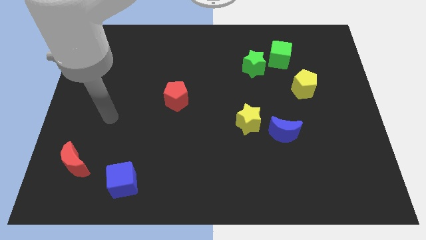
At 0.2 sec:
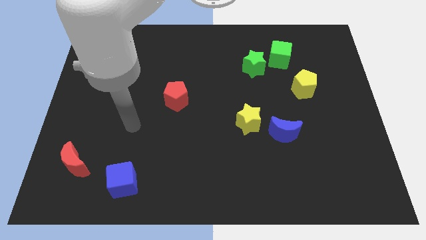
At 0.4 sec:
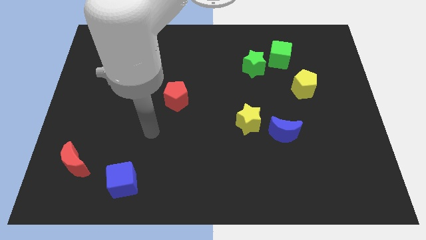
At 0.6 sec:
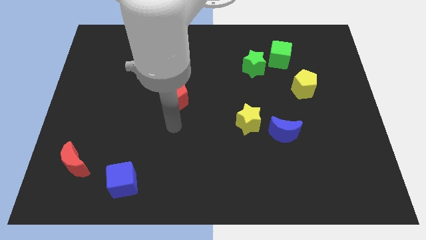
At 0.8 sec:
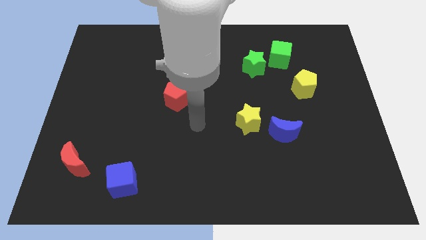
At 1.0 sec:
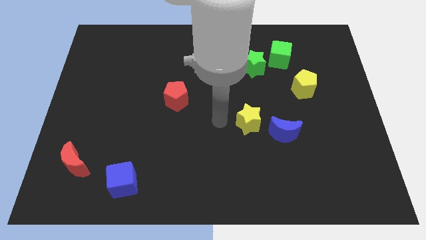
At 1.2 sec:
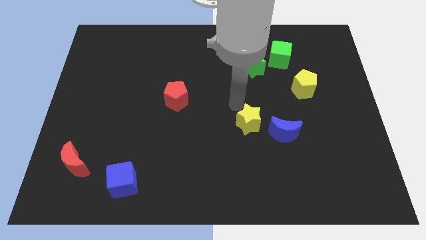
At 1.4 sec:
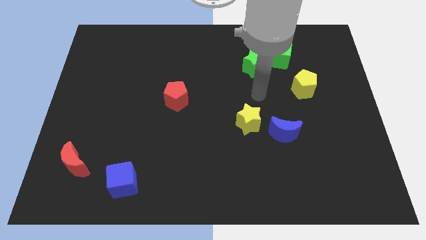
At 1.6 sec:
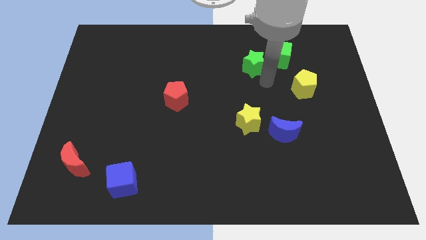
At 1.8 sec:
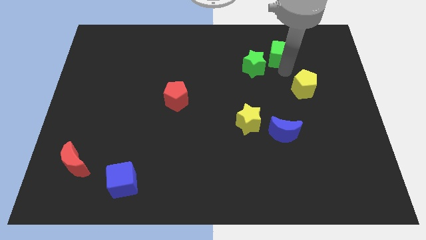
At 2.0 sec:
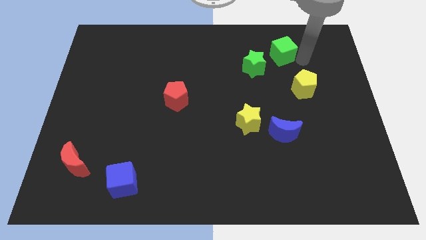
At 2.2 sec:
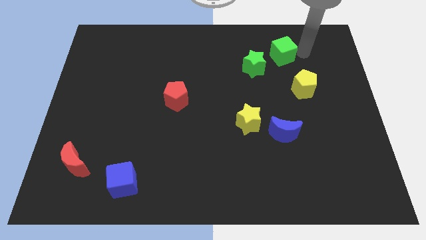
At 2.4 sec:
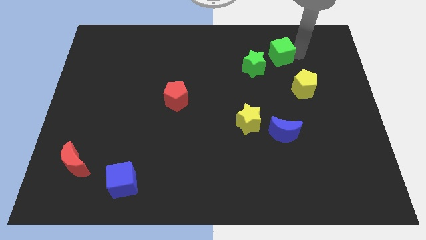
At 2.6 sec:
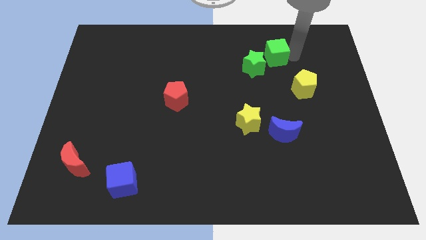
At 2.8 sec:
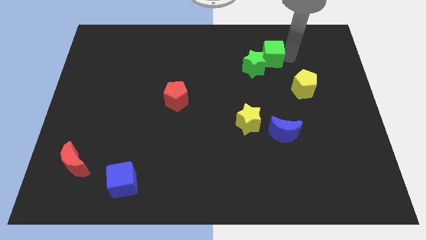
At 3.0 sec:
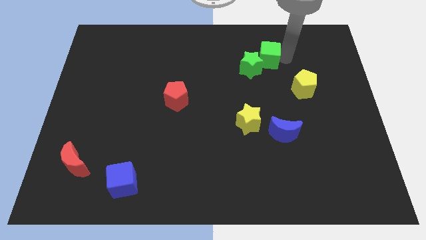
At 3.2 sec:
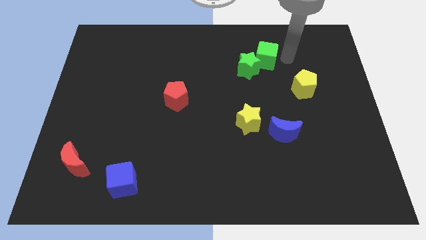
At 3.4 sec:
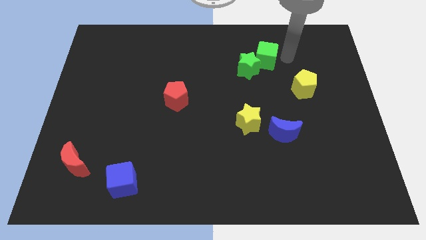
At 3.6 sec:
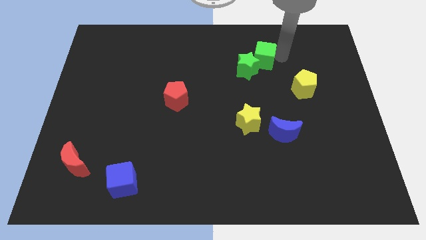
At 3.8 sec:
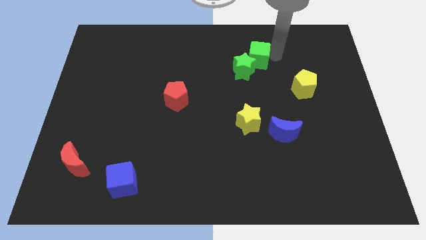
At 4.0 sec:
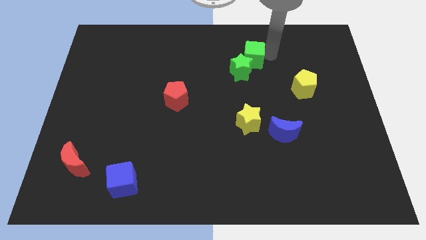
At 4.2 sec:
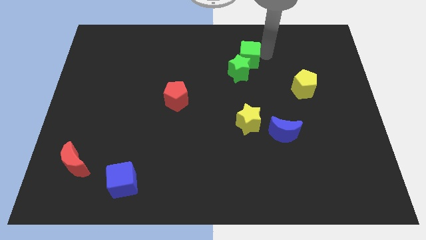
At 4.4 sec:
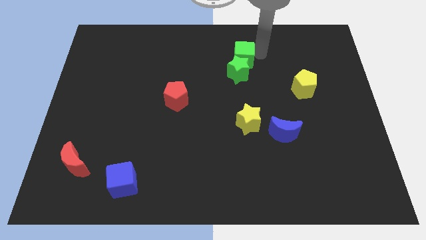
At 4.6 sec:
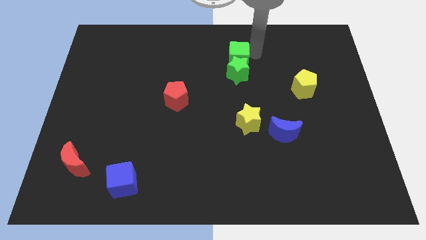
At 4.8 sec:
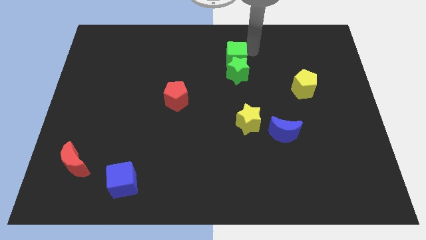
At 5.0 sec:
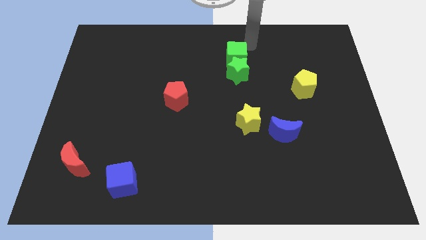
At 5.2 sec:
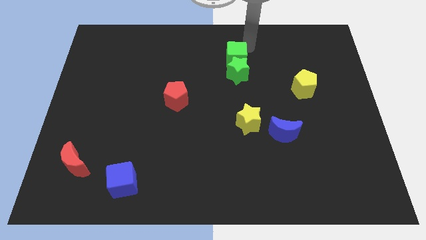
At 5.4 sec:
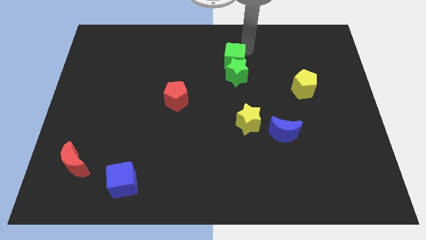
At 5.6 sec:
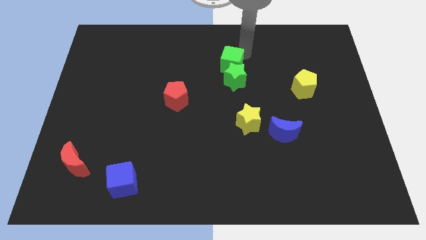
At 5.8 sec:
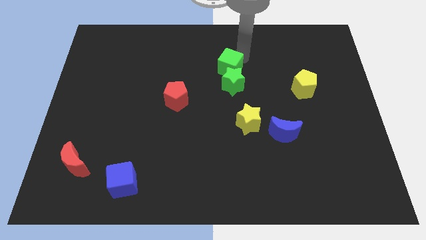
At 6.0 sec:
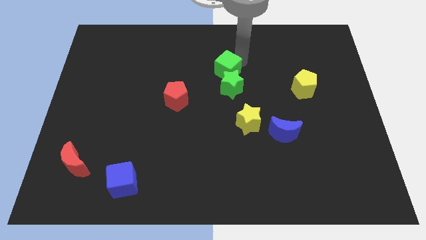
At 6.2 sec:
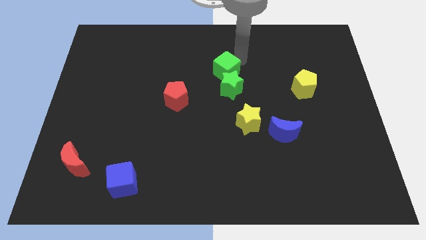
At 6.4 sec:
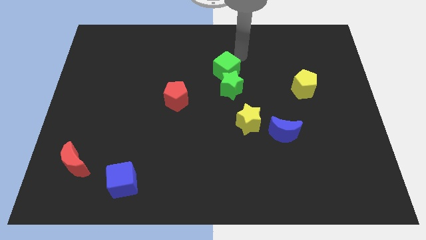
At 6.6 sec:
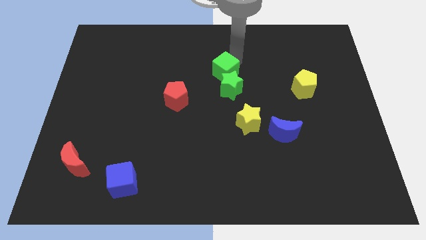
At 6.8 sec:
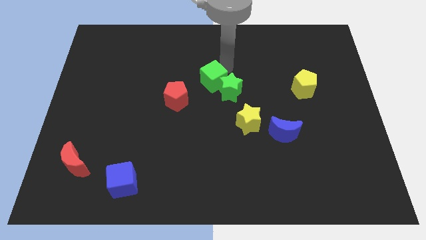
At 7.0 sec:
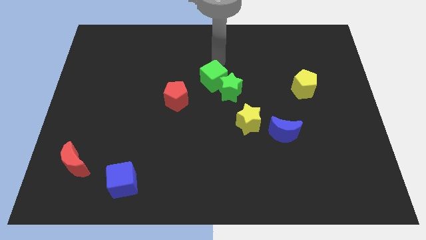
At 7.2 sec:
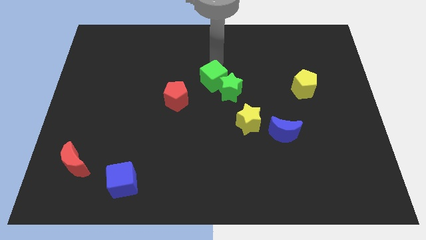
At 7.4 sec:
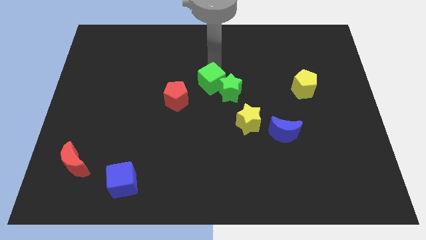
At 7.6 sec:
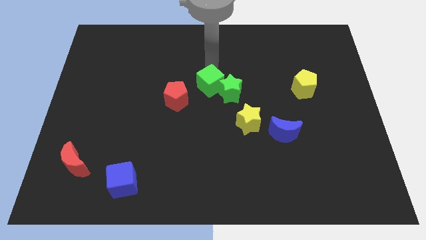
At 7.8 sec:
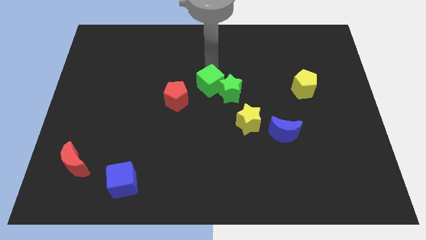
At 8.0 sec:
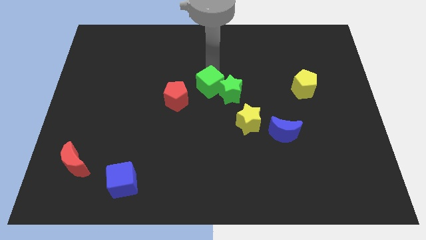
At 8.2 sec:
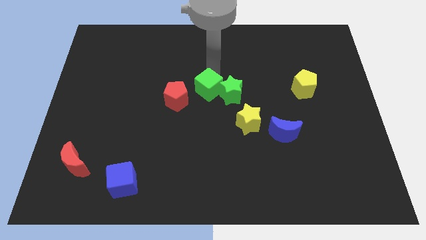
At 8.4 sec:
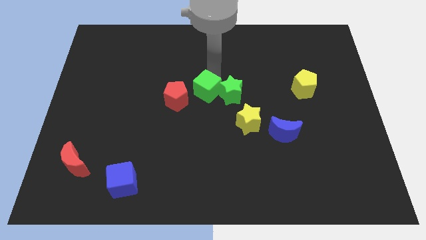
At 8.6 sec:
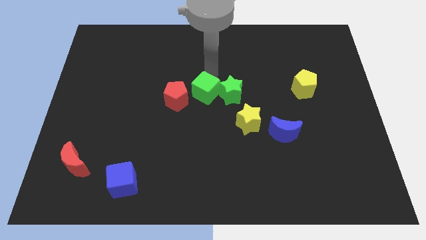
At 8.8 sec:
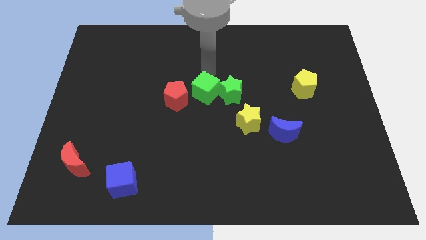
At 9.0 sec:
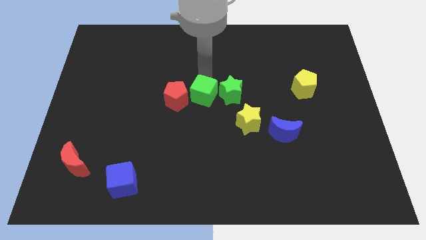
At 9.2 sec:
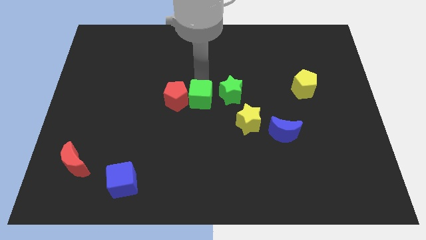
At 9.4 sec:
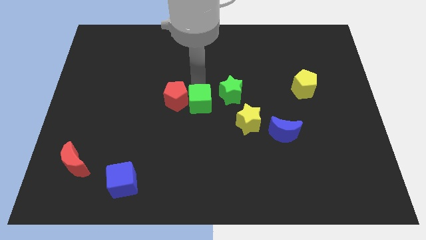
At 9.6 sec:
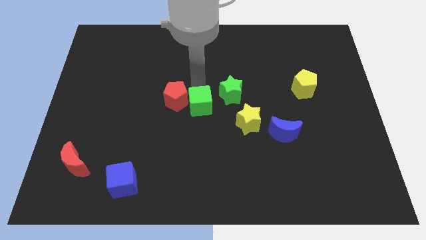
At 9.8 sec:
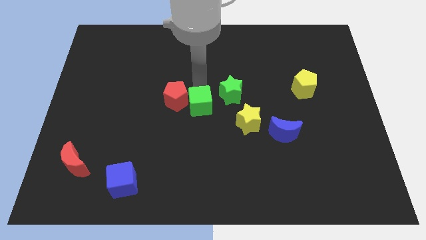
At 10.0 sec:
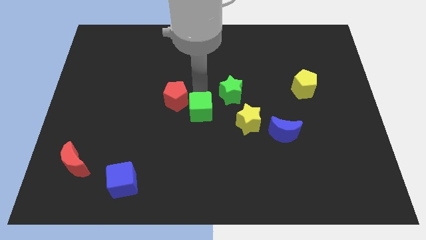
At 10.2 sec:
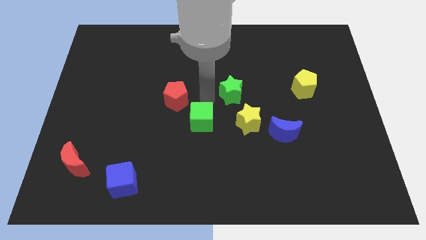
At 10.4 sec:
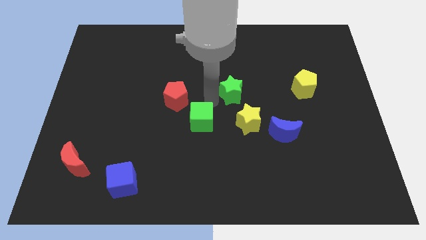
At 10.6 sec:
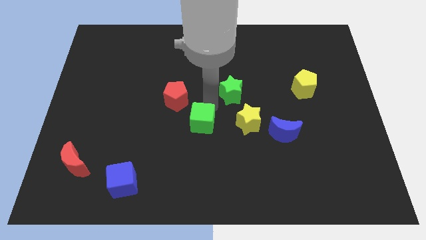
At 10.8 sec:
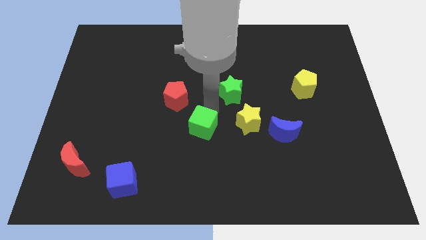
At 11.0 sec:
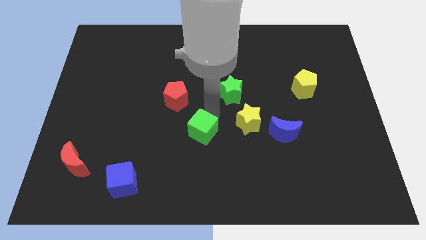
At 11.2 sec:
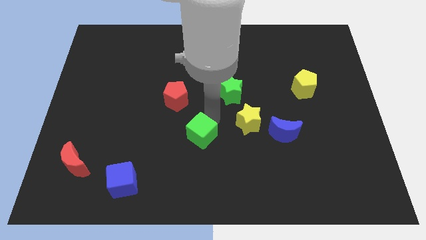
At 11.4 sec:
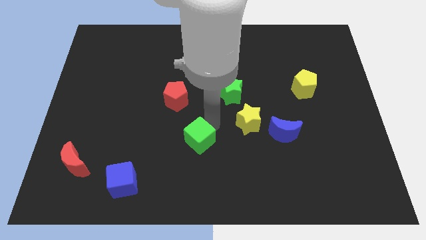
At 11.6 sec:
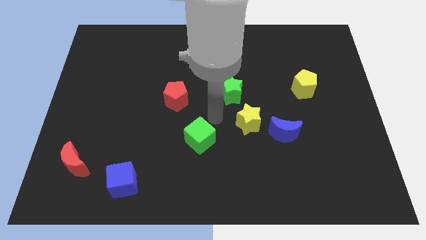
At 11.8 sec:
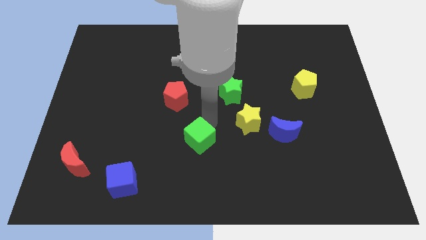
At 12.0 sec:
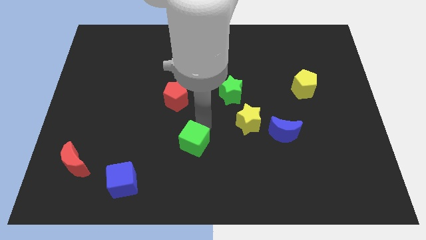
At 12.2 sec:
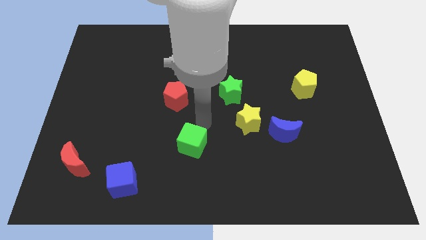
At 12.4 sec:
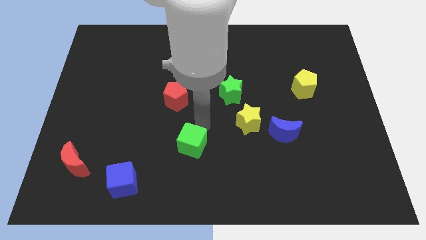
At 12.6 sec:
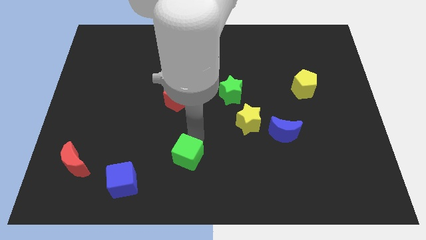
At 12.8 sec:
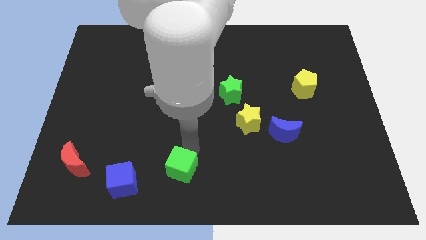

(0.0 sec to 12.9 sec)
slide the green cube just right of the blue cube

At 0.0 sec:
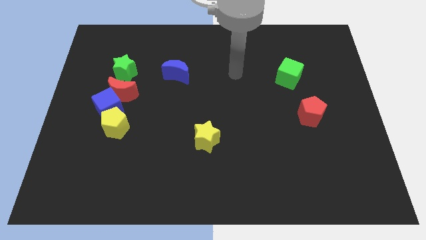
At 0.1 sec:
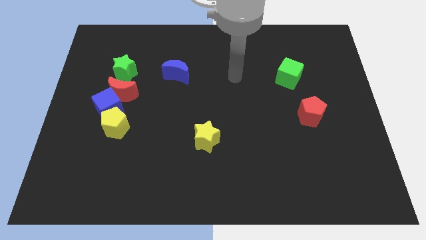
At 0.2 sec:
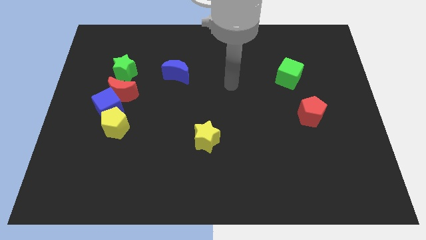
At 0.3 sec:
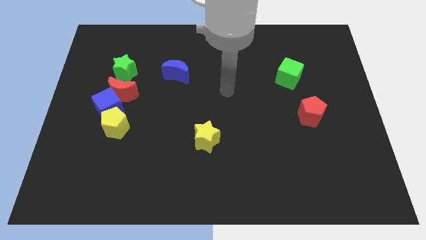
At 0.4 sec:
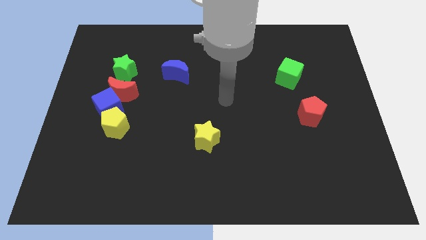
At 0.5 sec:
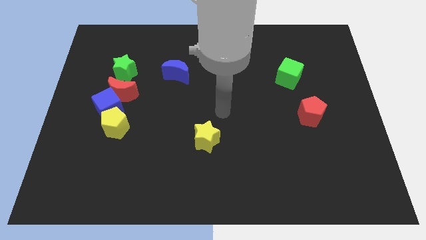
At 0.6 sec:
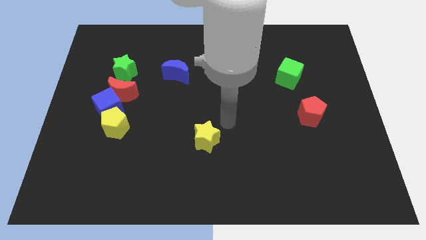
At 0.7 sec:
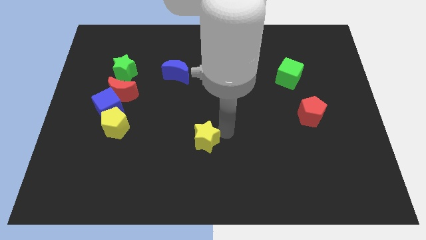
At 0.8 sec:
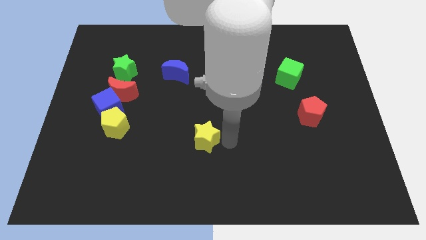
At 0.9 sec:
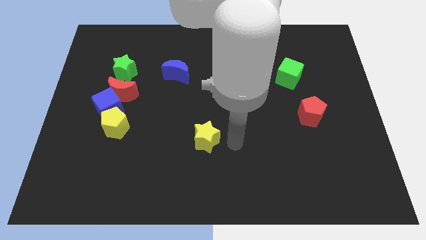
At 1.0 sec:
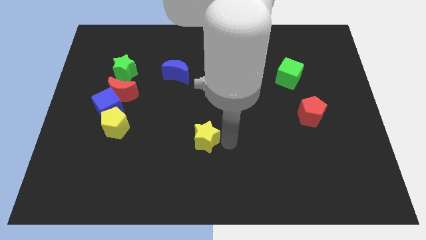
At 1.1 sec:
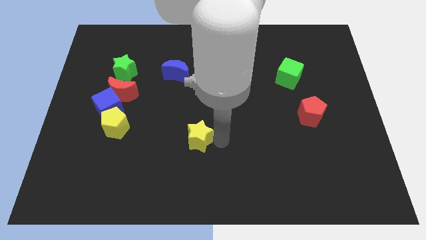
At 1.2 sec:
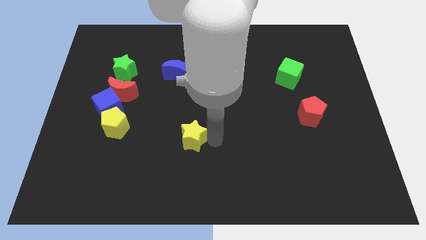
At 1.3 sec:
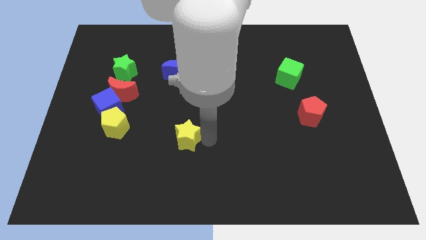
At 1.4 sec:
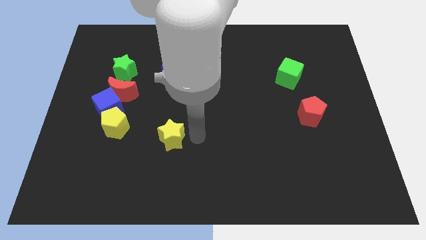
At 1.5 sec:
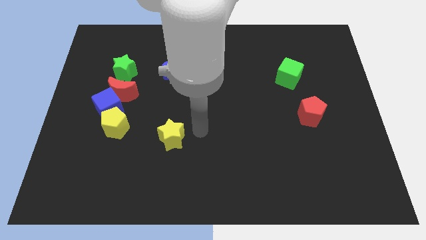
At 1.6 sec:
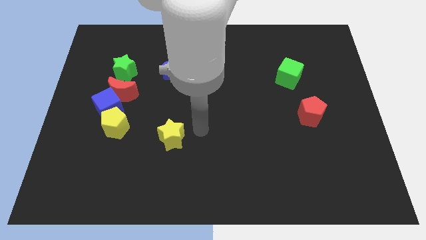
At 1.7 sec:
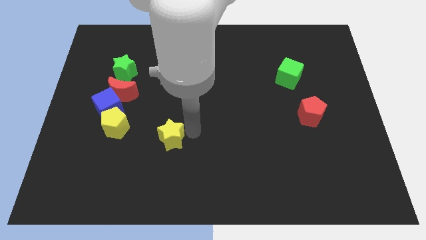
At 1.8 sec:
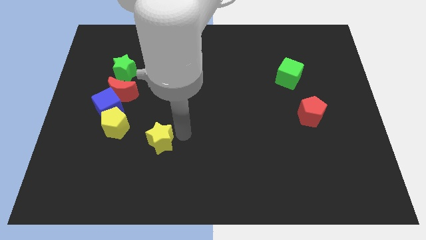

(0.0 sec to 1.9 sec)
slide the yellow star diagonally down and to the right of the yellow pentagon

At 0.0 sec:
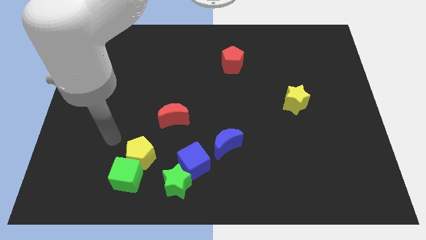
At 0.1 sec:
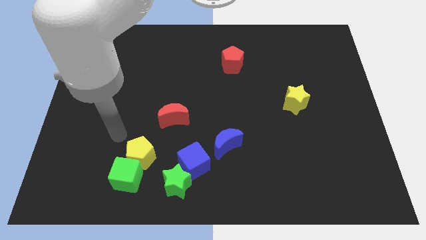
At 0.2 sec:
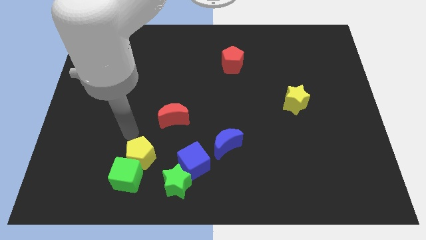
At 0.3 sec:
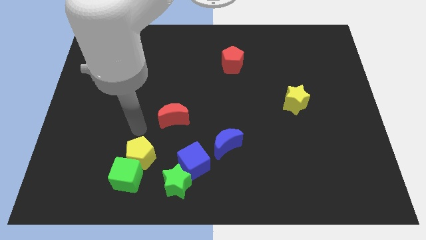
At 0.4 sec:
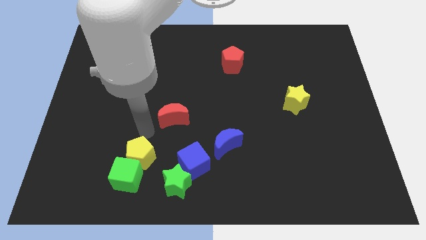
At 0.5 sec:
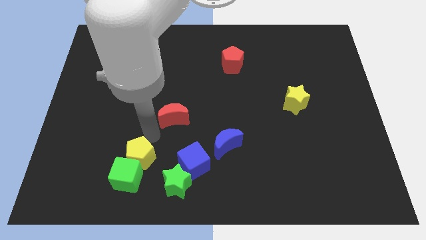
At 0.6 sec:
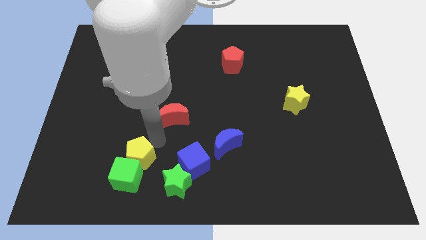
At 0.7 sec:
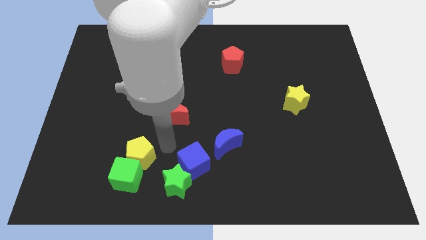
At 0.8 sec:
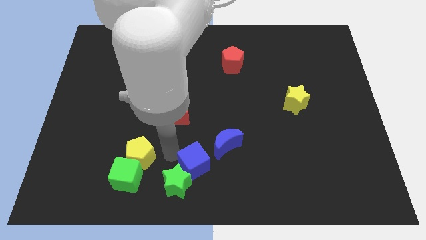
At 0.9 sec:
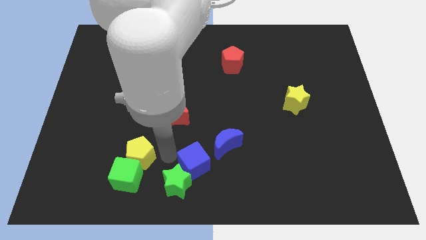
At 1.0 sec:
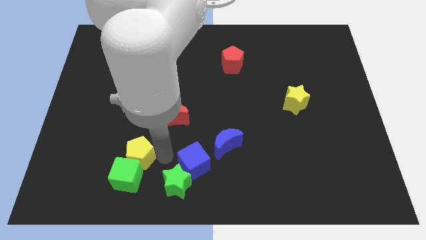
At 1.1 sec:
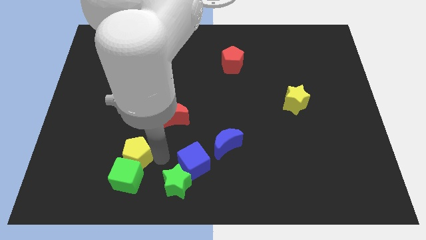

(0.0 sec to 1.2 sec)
put the yellow pentagon diagonally up and to the left of the green cube
